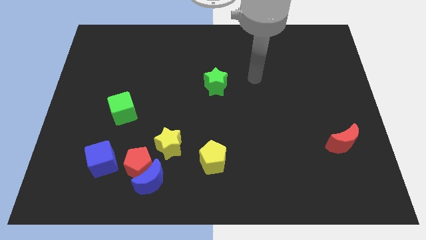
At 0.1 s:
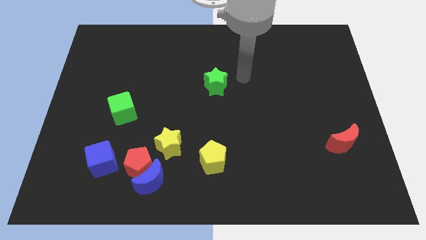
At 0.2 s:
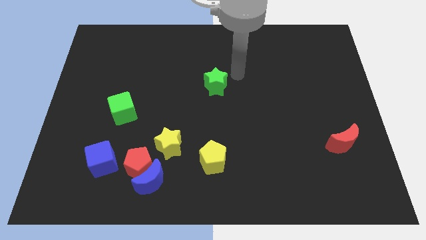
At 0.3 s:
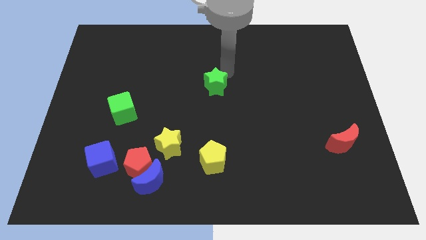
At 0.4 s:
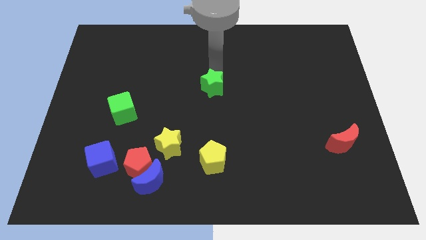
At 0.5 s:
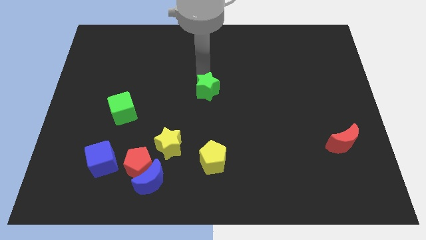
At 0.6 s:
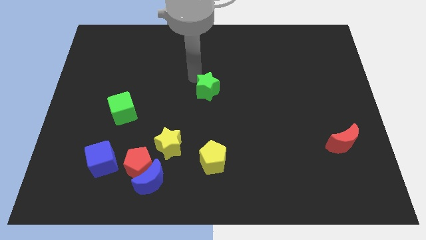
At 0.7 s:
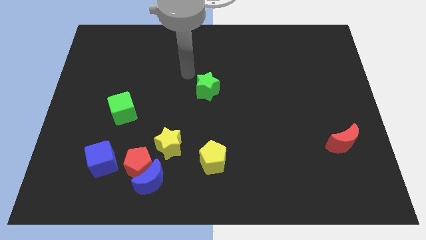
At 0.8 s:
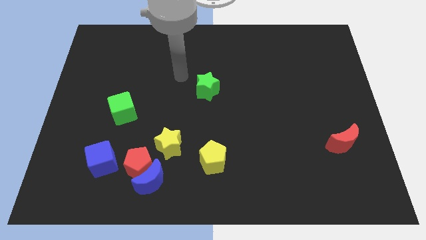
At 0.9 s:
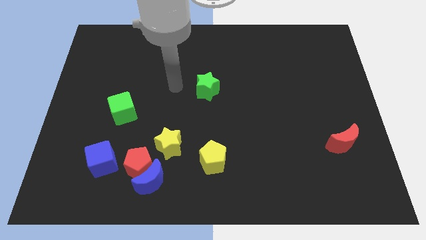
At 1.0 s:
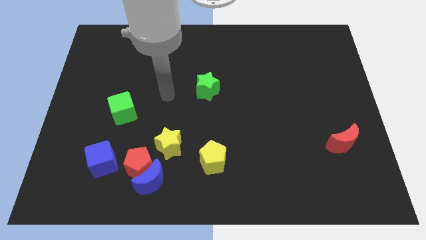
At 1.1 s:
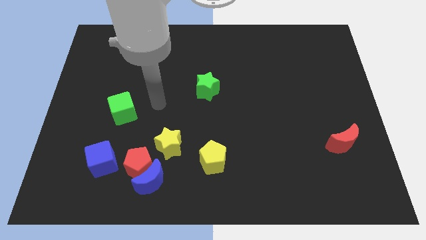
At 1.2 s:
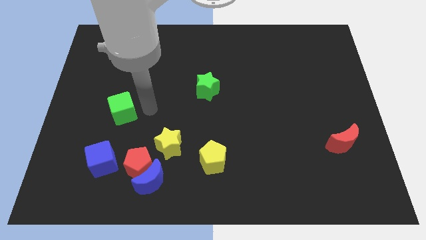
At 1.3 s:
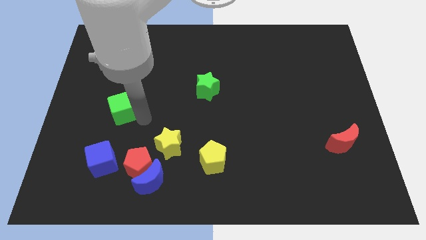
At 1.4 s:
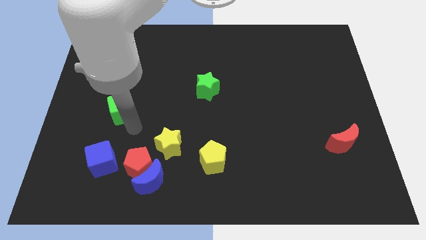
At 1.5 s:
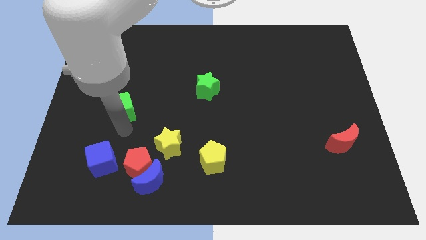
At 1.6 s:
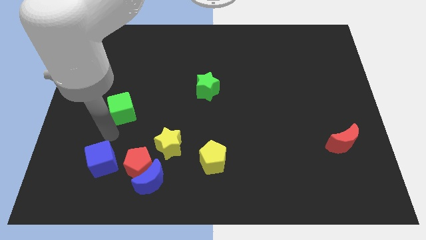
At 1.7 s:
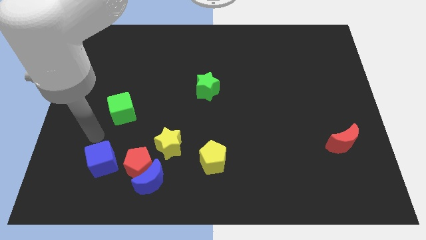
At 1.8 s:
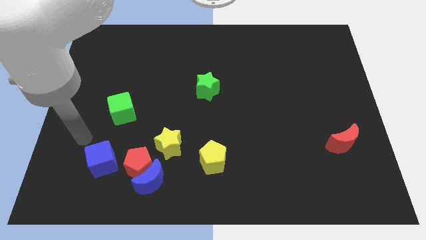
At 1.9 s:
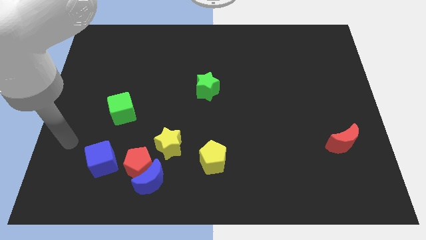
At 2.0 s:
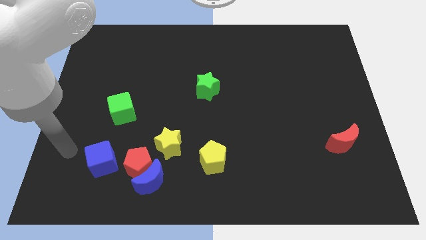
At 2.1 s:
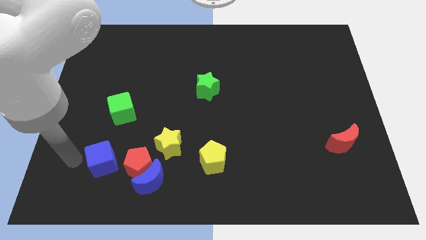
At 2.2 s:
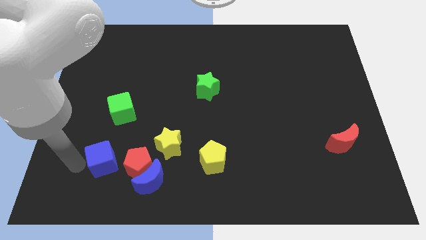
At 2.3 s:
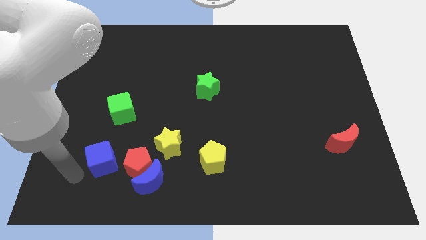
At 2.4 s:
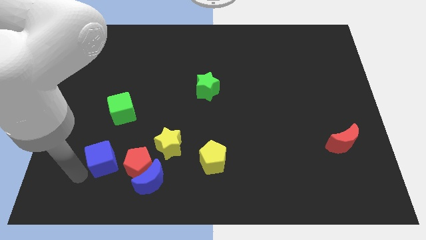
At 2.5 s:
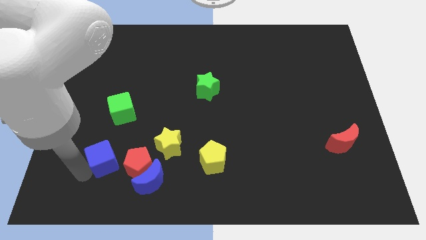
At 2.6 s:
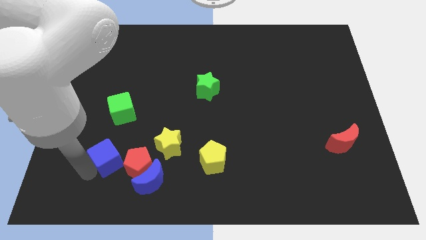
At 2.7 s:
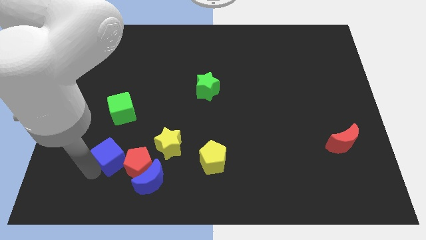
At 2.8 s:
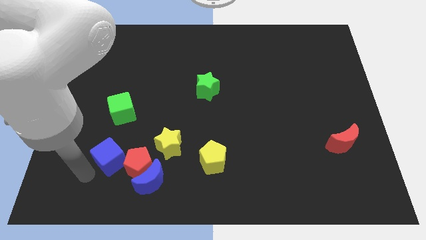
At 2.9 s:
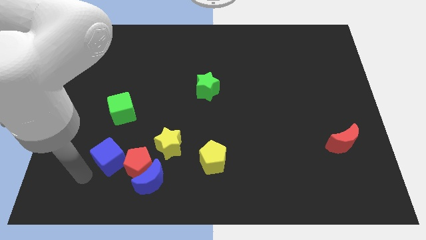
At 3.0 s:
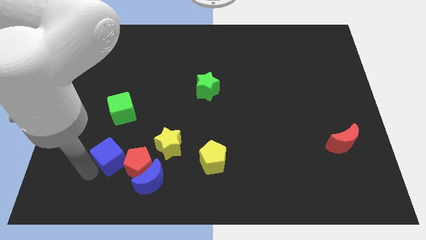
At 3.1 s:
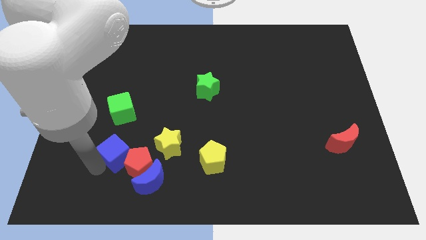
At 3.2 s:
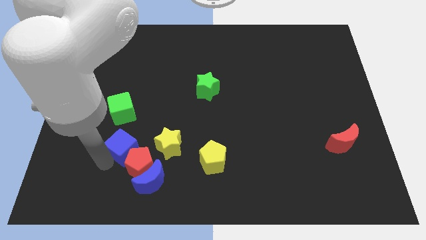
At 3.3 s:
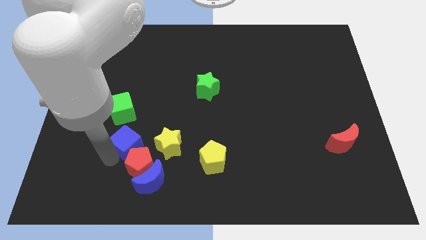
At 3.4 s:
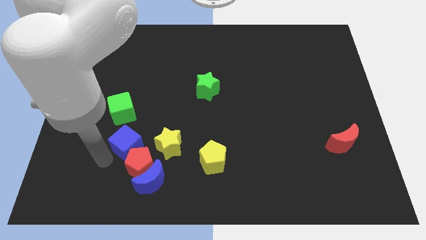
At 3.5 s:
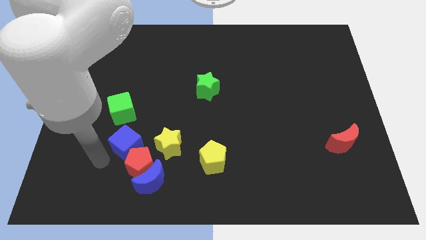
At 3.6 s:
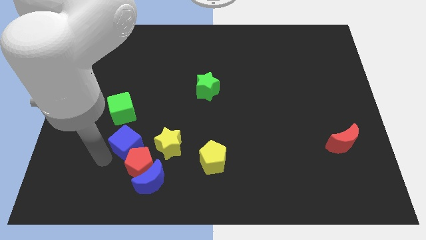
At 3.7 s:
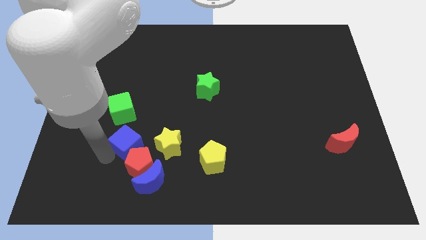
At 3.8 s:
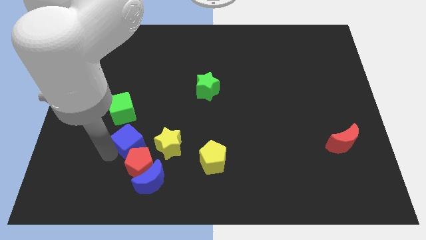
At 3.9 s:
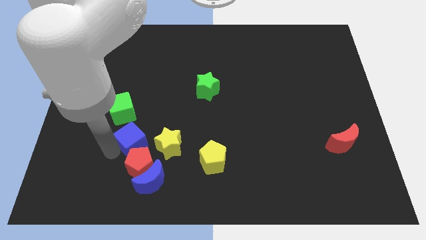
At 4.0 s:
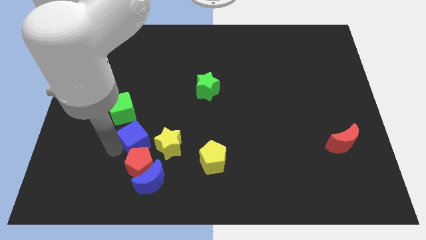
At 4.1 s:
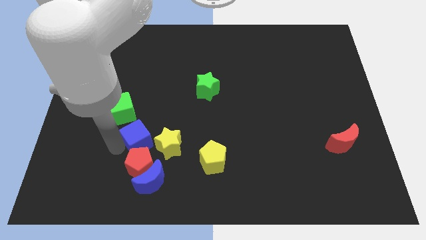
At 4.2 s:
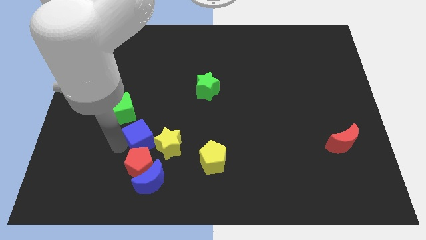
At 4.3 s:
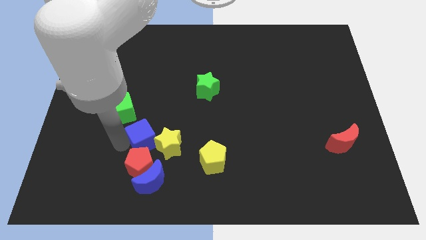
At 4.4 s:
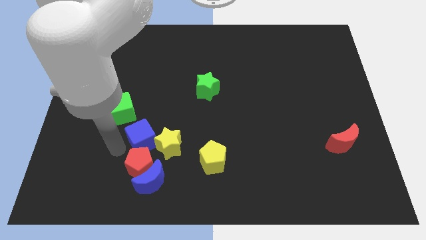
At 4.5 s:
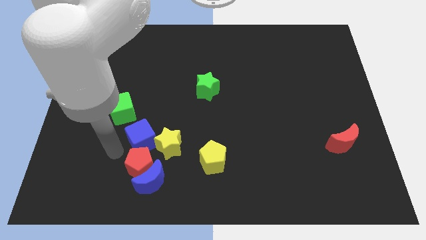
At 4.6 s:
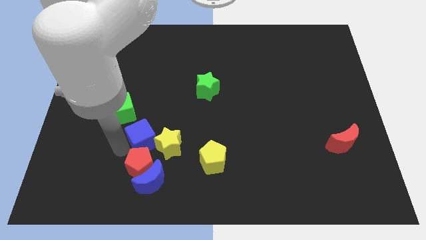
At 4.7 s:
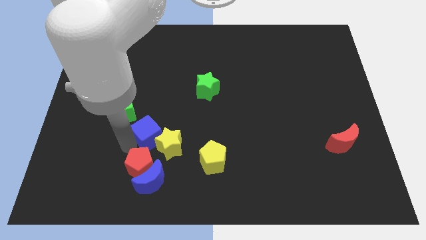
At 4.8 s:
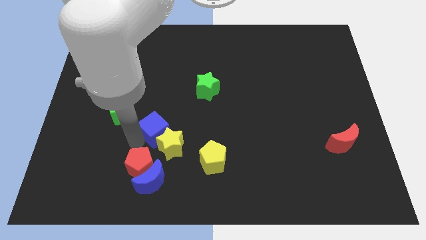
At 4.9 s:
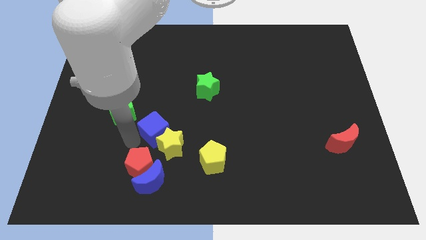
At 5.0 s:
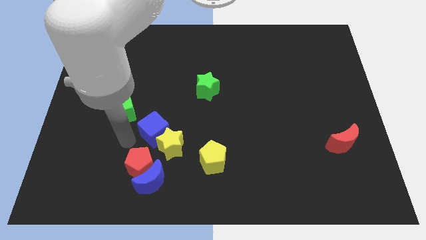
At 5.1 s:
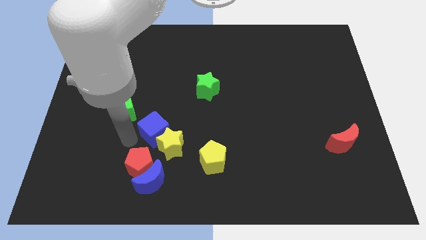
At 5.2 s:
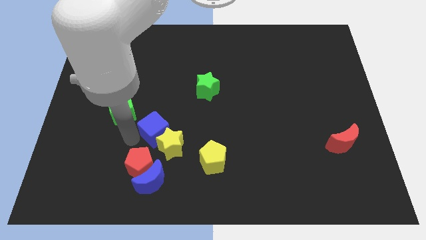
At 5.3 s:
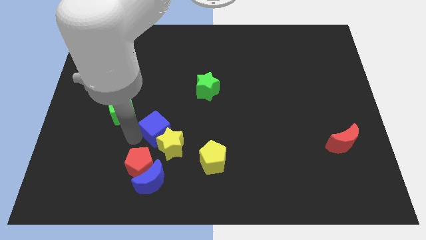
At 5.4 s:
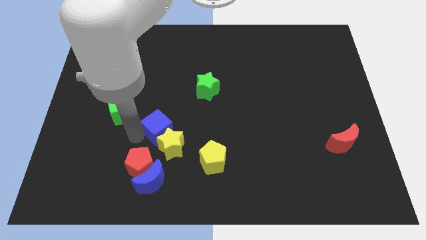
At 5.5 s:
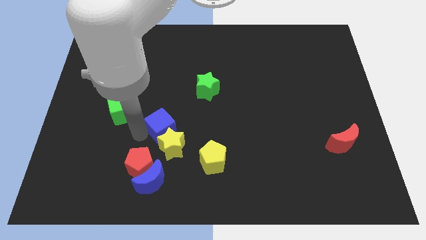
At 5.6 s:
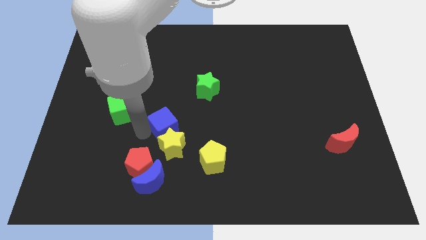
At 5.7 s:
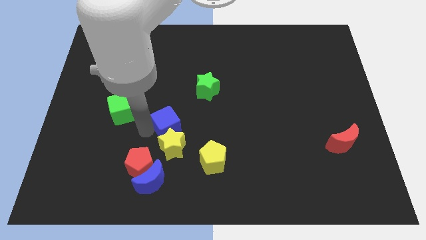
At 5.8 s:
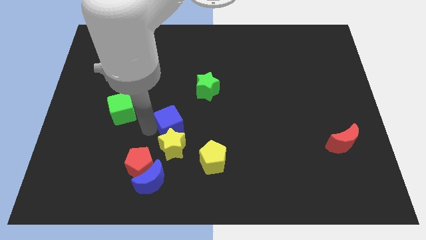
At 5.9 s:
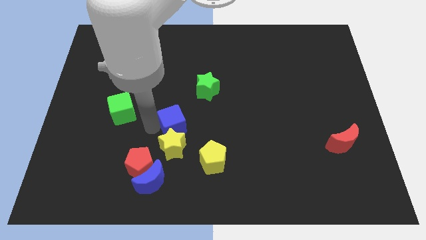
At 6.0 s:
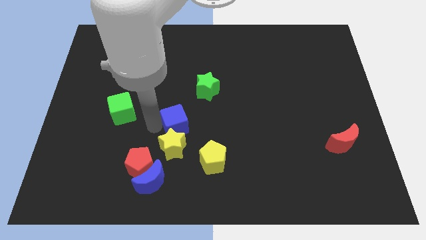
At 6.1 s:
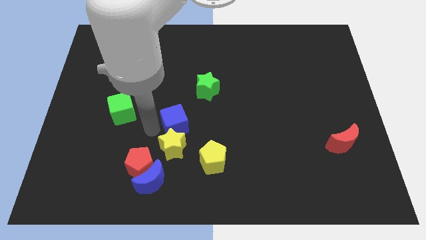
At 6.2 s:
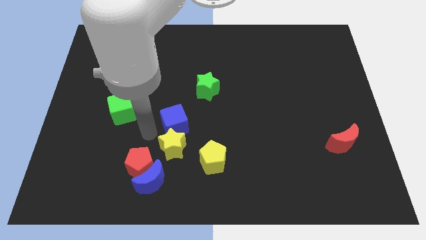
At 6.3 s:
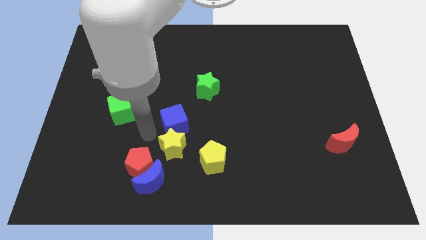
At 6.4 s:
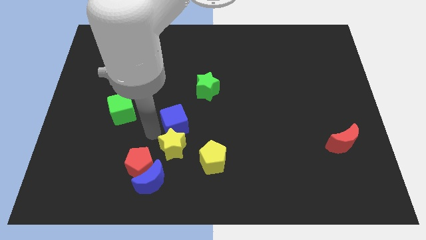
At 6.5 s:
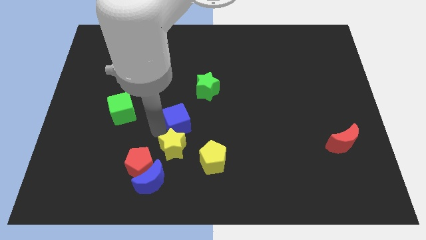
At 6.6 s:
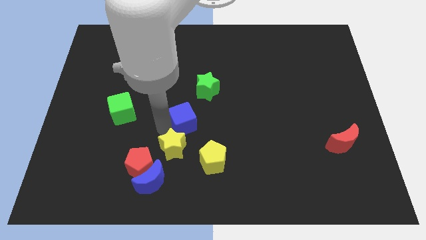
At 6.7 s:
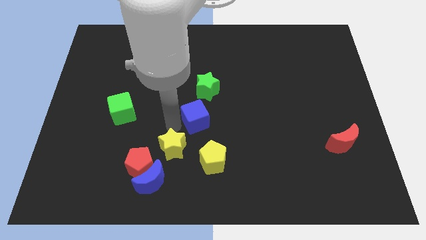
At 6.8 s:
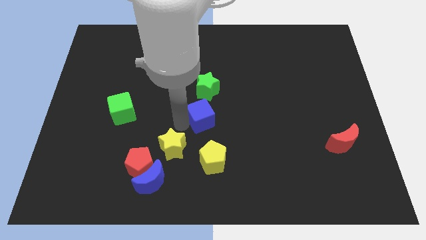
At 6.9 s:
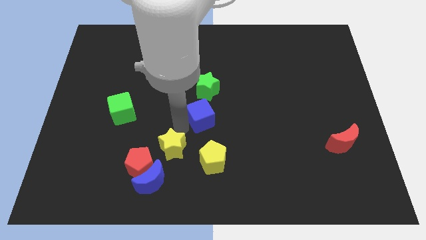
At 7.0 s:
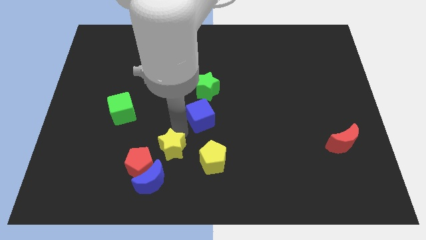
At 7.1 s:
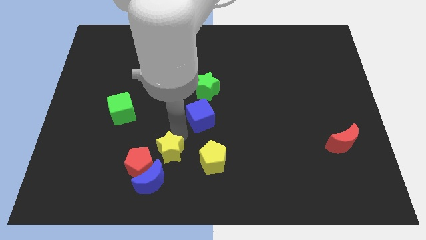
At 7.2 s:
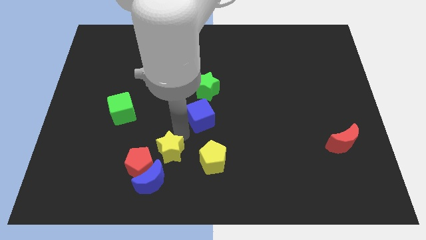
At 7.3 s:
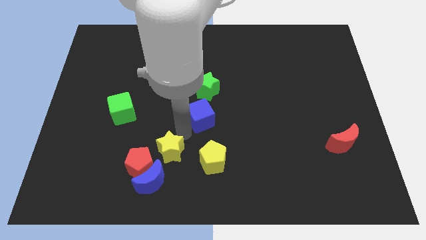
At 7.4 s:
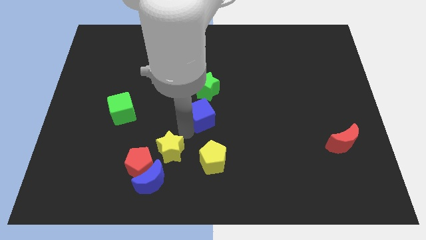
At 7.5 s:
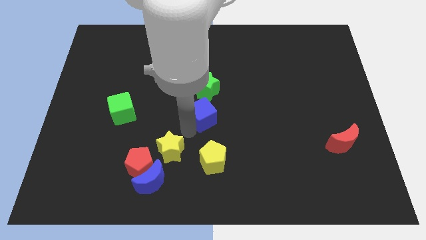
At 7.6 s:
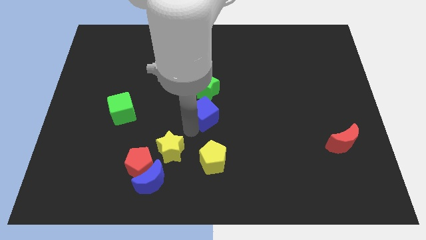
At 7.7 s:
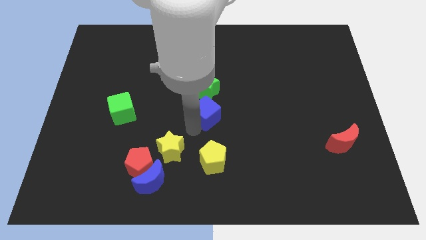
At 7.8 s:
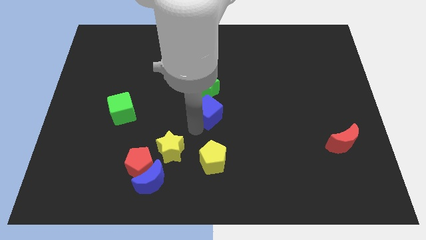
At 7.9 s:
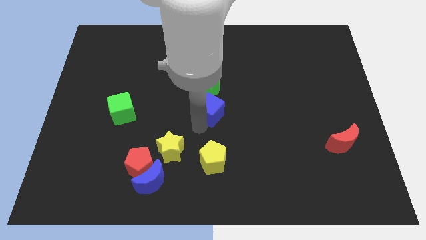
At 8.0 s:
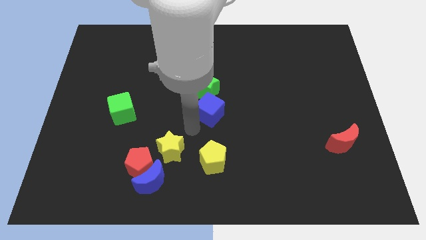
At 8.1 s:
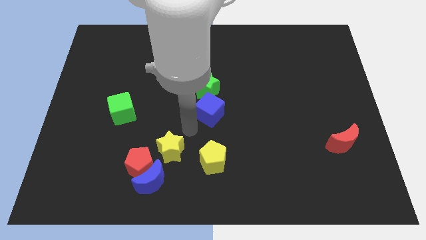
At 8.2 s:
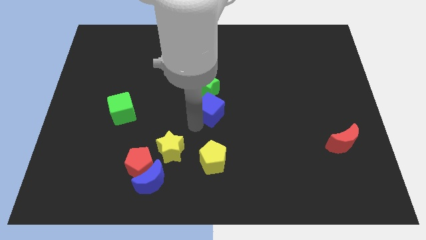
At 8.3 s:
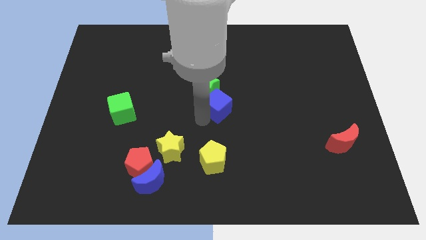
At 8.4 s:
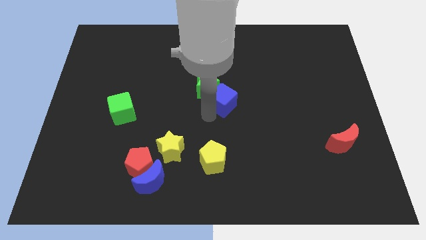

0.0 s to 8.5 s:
put the blue cube right of the green star
